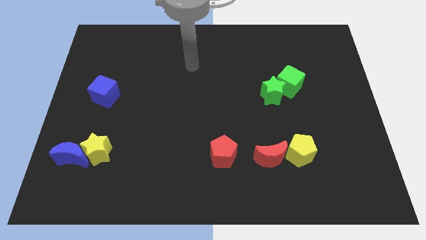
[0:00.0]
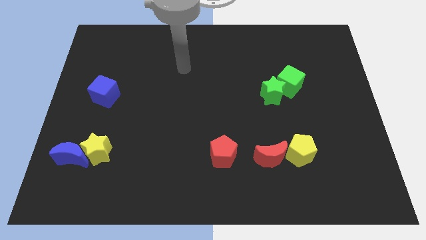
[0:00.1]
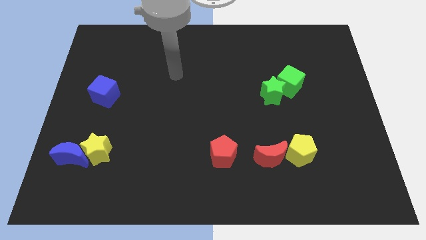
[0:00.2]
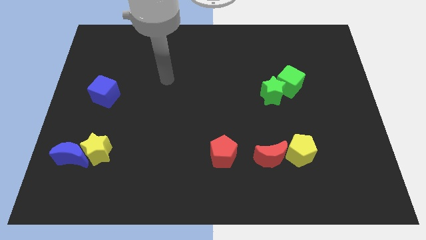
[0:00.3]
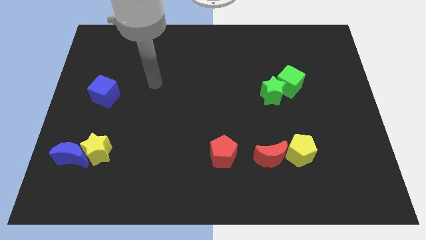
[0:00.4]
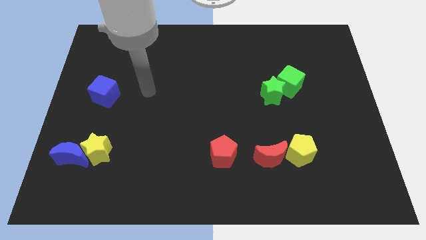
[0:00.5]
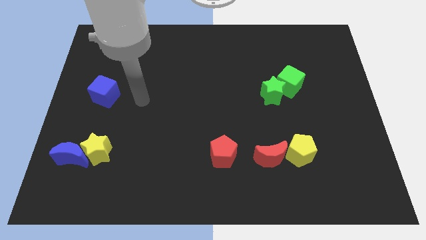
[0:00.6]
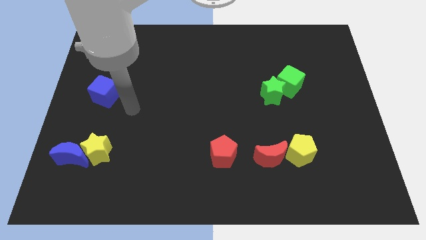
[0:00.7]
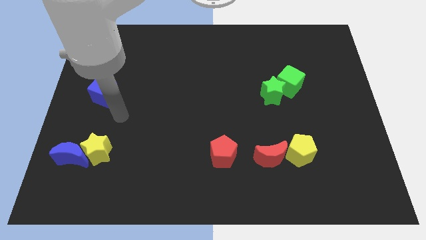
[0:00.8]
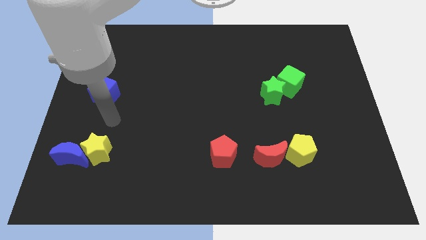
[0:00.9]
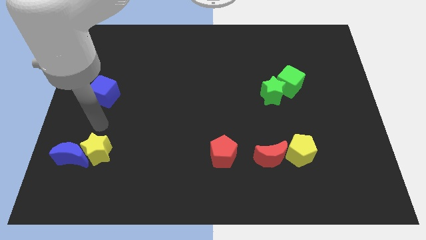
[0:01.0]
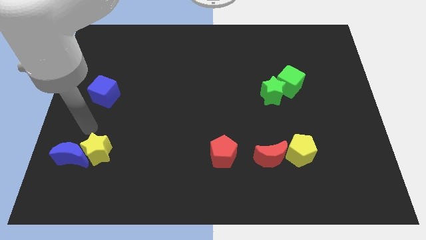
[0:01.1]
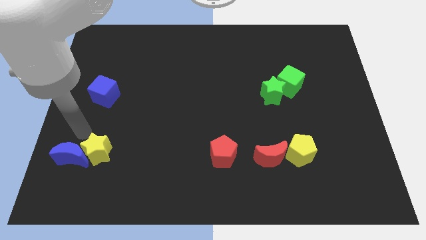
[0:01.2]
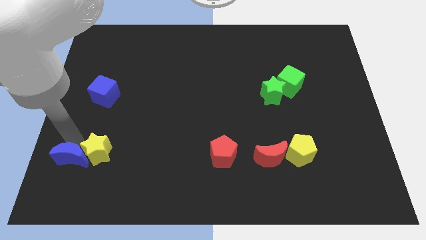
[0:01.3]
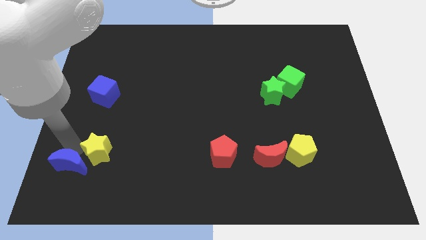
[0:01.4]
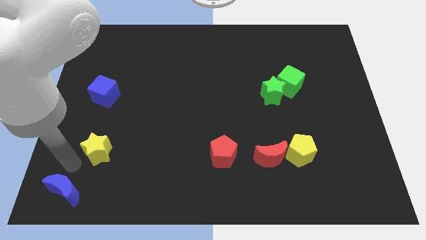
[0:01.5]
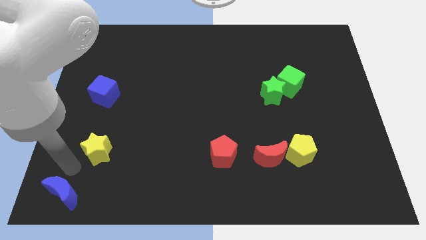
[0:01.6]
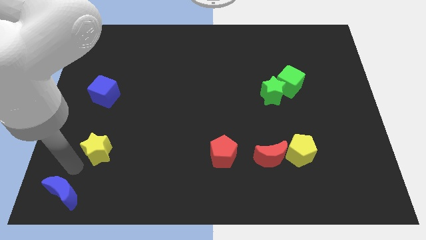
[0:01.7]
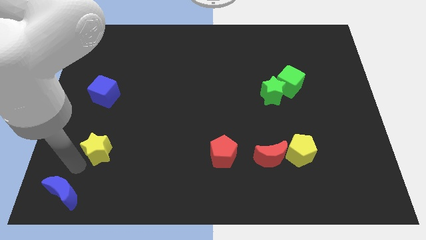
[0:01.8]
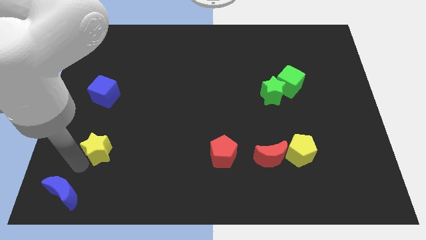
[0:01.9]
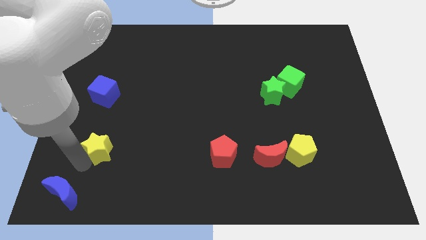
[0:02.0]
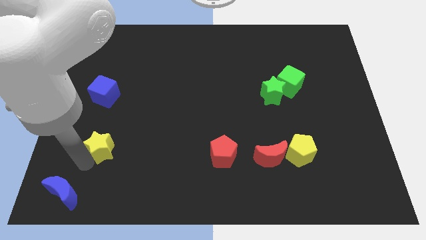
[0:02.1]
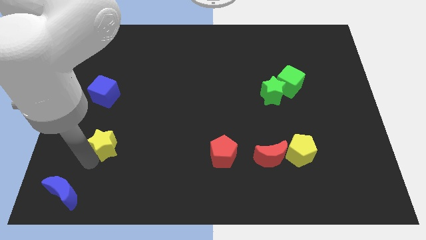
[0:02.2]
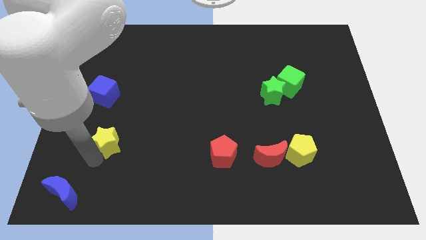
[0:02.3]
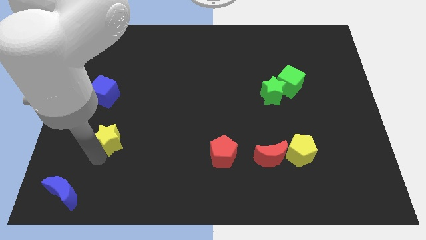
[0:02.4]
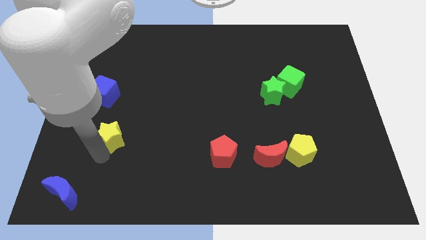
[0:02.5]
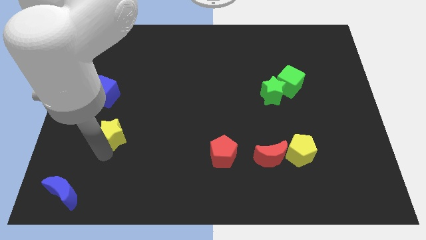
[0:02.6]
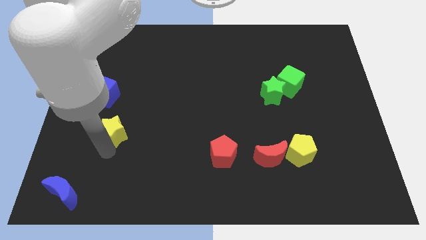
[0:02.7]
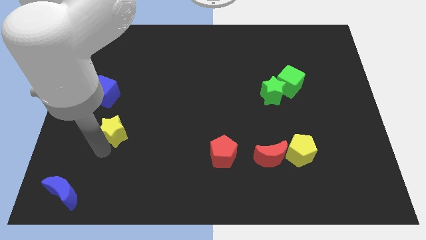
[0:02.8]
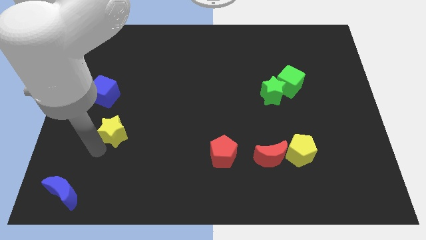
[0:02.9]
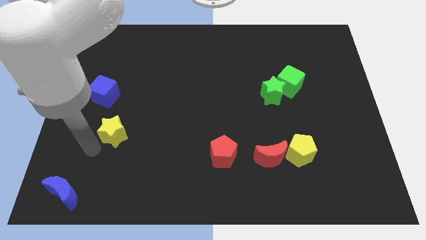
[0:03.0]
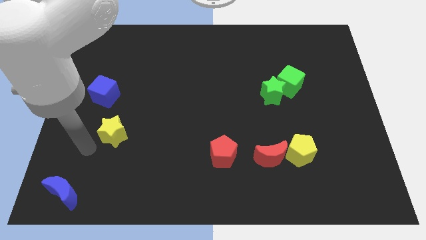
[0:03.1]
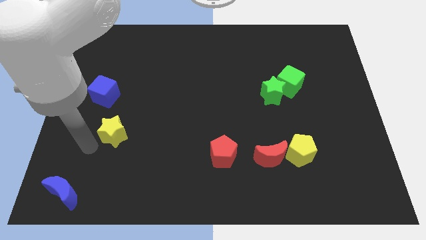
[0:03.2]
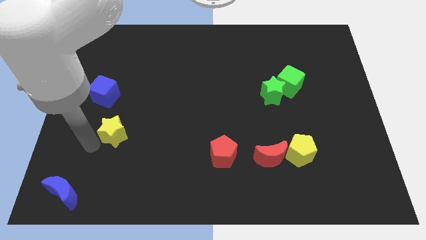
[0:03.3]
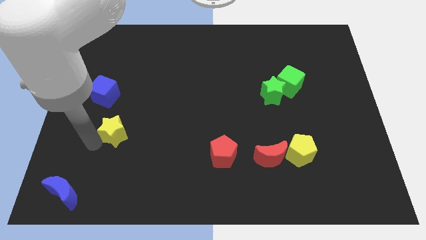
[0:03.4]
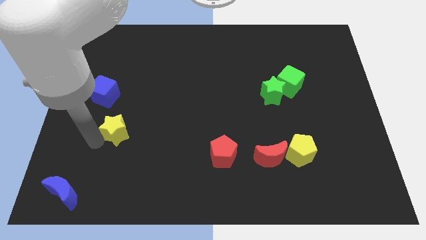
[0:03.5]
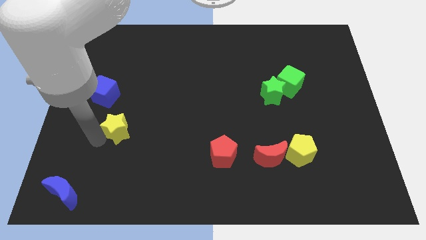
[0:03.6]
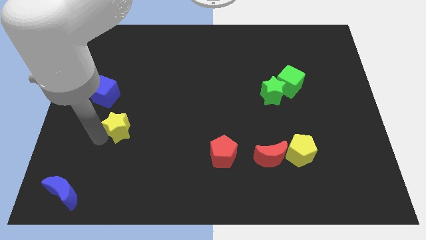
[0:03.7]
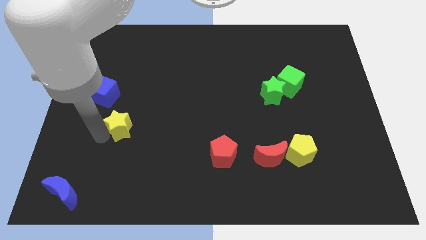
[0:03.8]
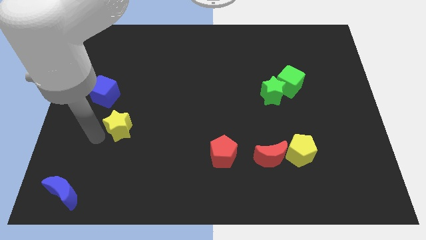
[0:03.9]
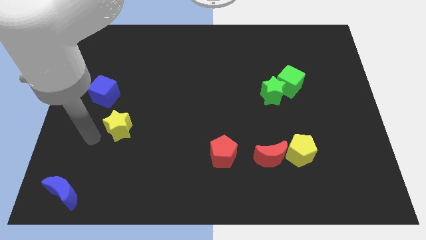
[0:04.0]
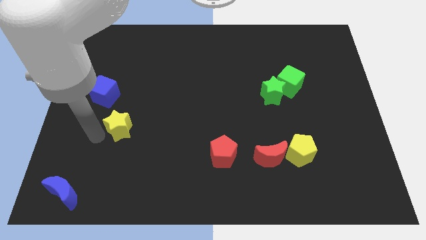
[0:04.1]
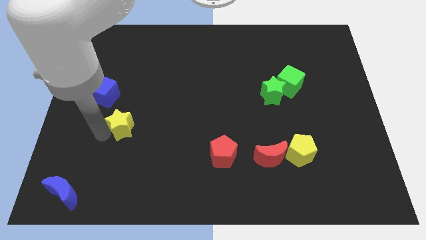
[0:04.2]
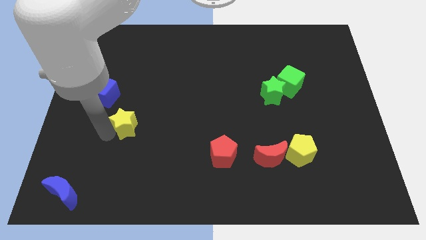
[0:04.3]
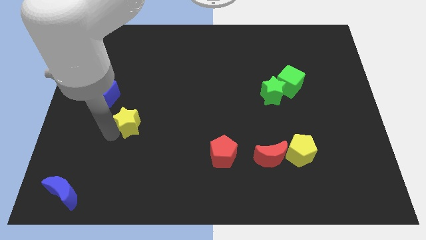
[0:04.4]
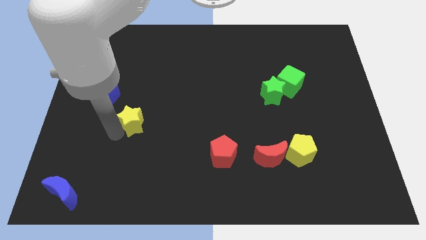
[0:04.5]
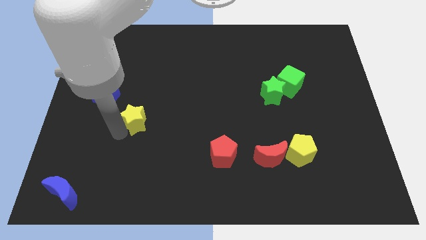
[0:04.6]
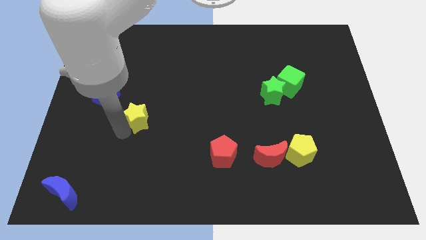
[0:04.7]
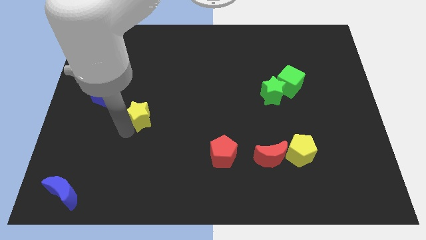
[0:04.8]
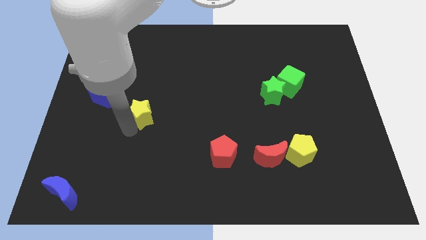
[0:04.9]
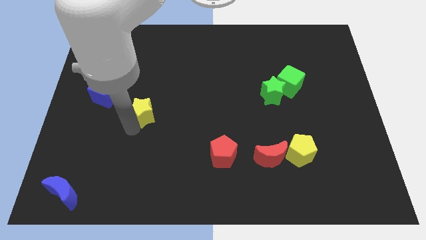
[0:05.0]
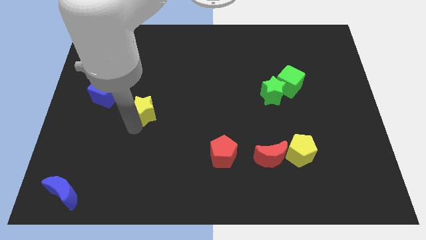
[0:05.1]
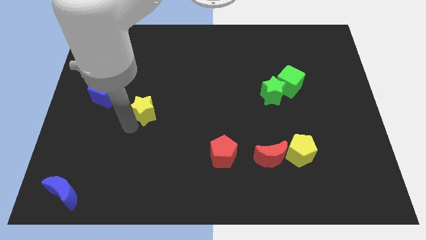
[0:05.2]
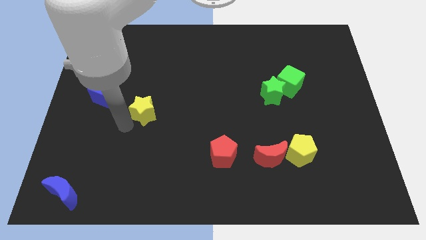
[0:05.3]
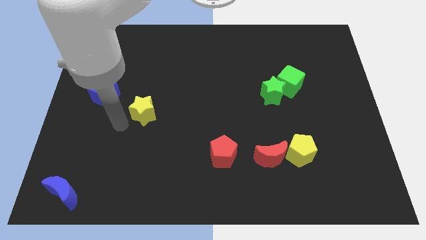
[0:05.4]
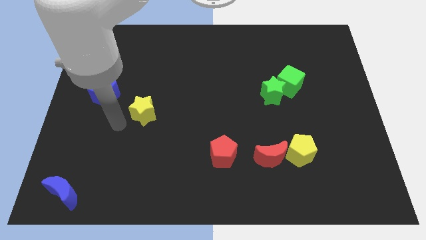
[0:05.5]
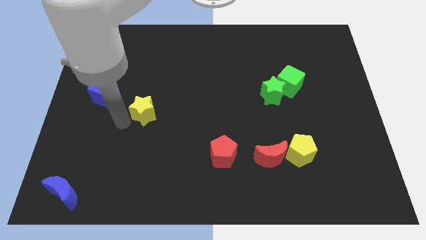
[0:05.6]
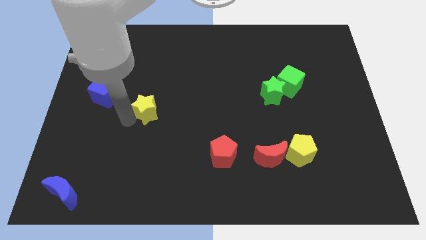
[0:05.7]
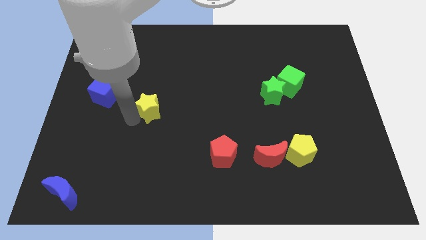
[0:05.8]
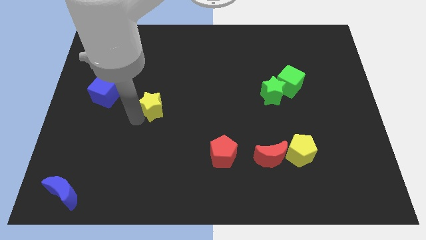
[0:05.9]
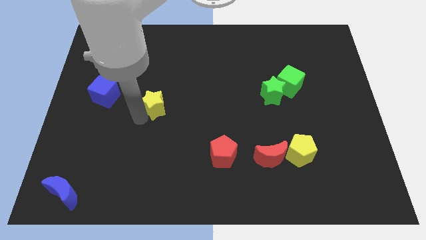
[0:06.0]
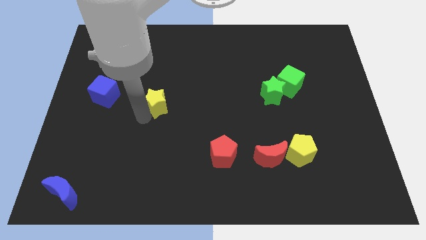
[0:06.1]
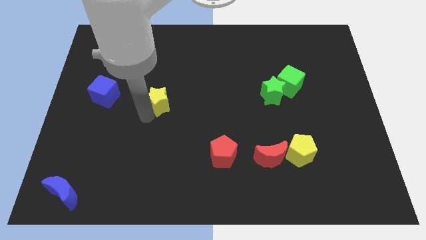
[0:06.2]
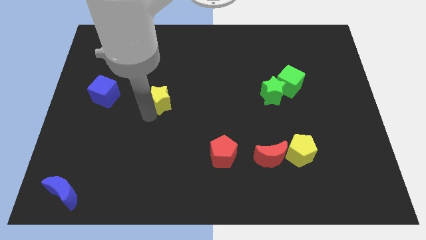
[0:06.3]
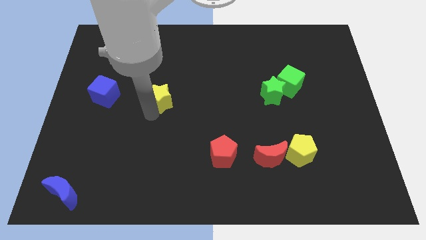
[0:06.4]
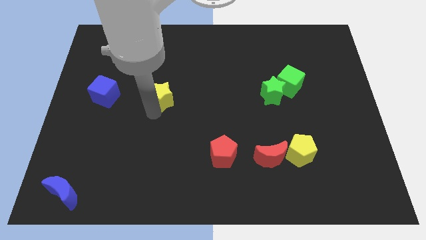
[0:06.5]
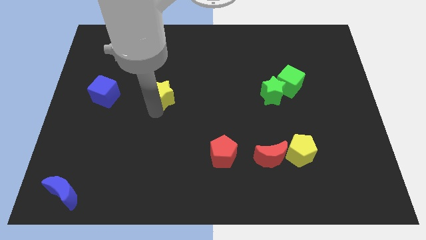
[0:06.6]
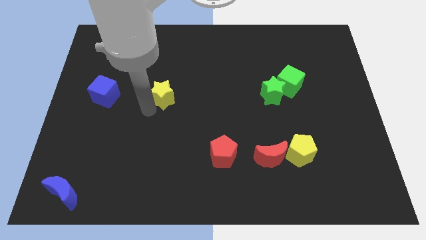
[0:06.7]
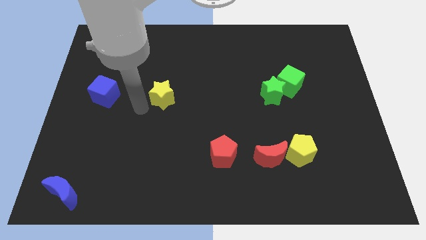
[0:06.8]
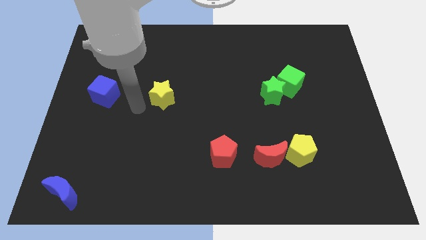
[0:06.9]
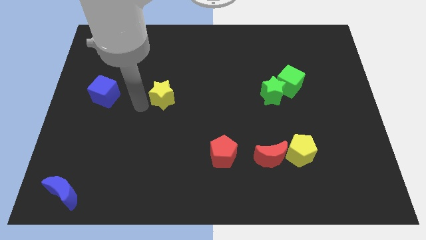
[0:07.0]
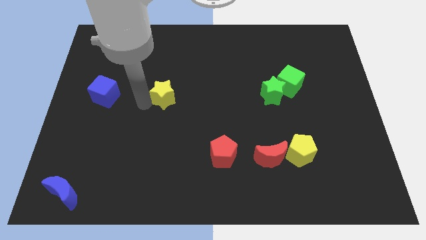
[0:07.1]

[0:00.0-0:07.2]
slide the yellow star up and then right

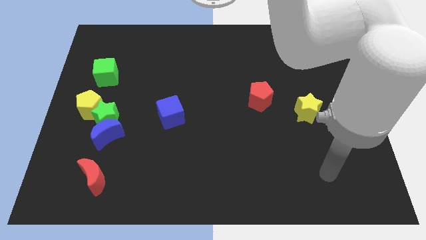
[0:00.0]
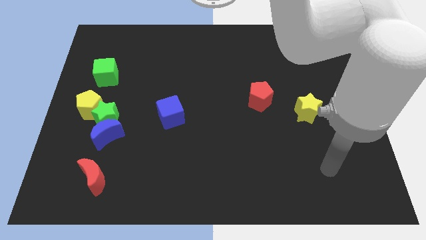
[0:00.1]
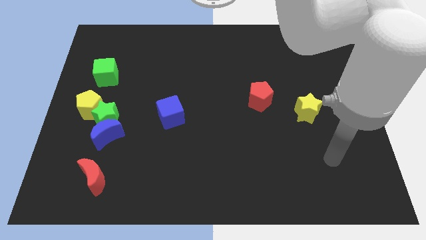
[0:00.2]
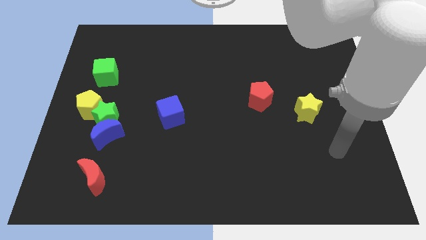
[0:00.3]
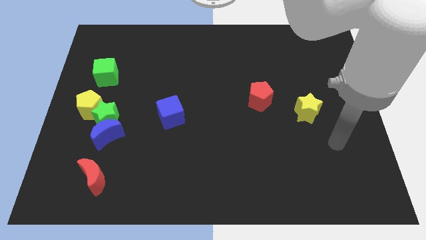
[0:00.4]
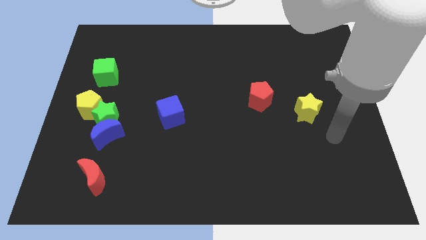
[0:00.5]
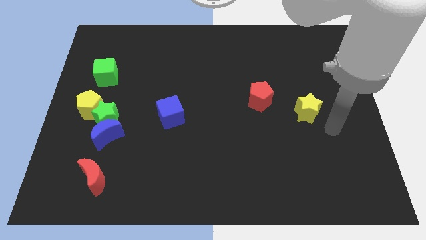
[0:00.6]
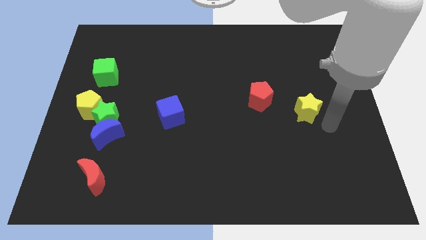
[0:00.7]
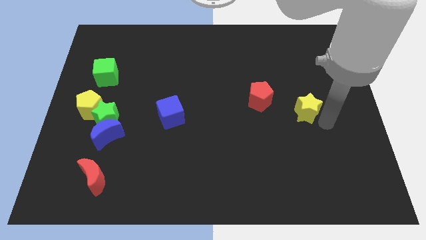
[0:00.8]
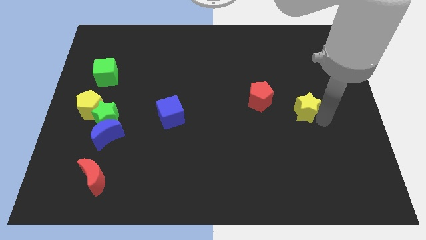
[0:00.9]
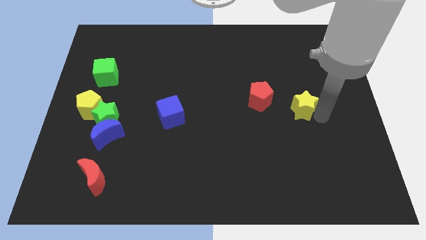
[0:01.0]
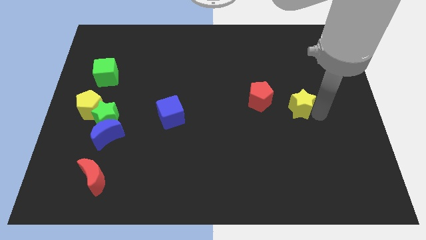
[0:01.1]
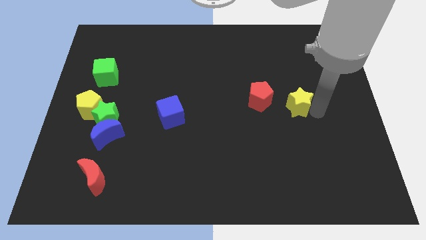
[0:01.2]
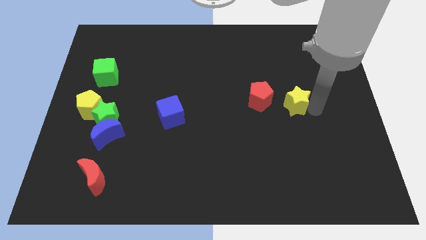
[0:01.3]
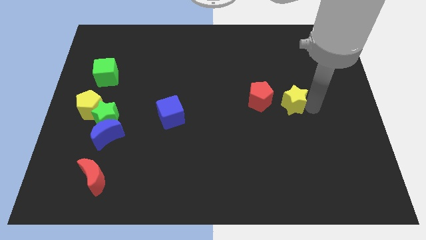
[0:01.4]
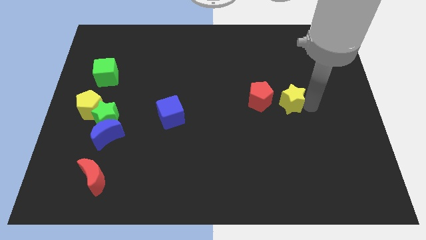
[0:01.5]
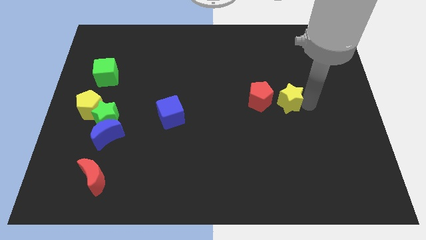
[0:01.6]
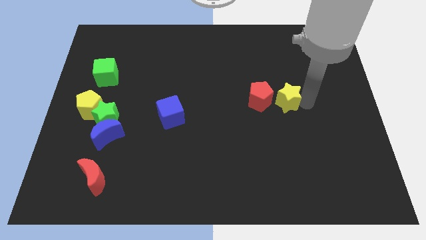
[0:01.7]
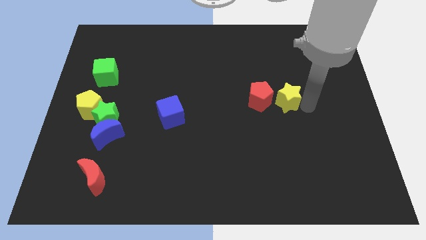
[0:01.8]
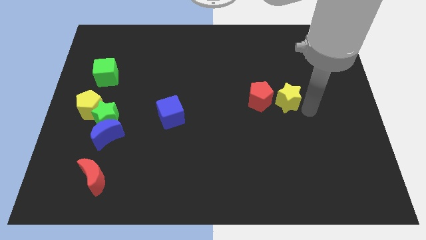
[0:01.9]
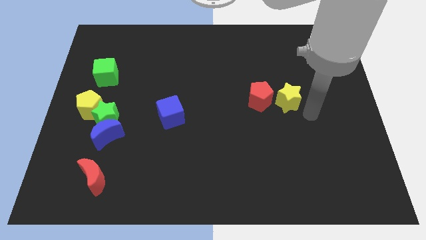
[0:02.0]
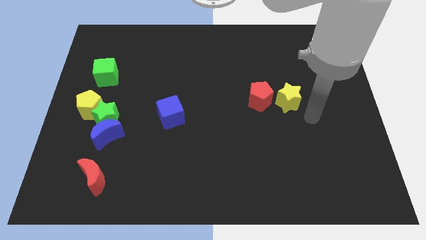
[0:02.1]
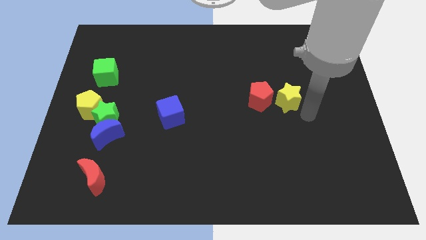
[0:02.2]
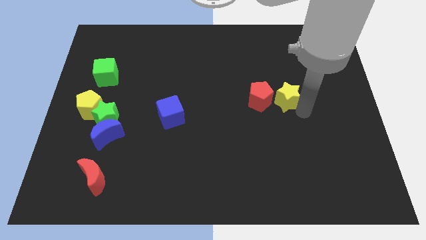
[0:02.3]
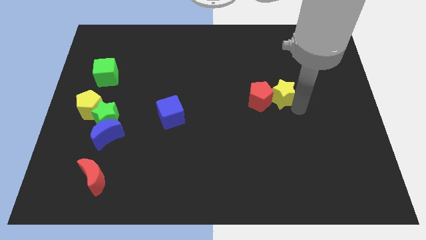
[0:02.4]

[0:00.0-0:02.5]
push the yellow star slightly upwards and then left
